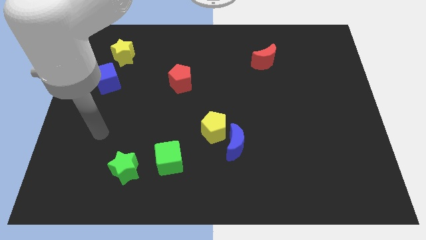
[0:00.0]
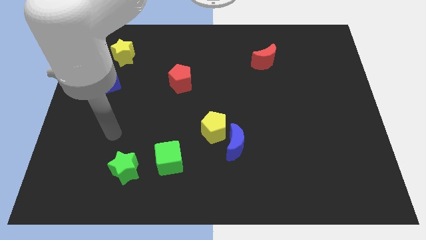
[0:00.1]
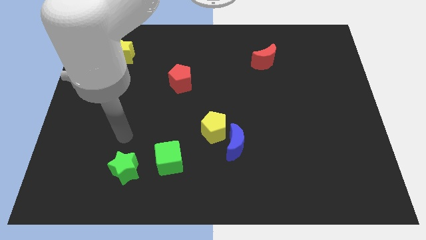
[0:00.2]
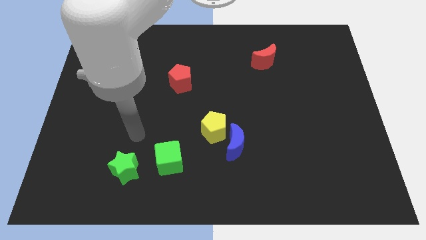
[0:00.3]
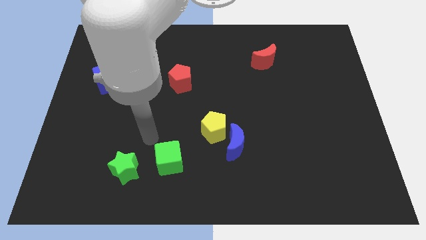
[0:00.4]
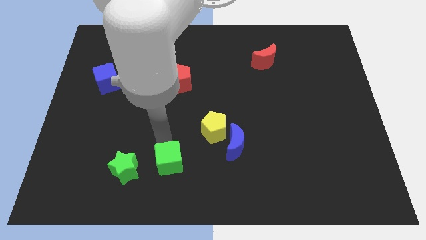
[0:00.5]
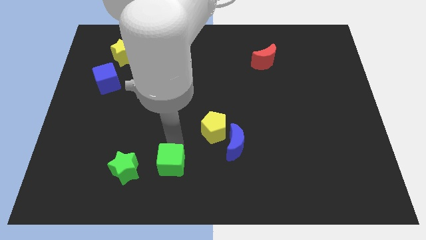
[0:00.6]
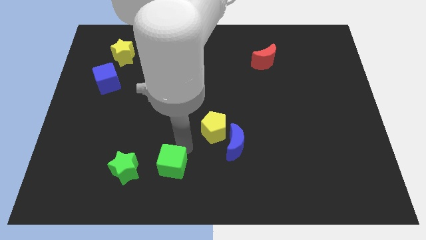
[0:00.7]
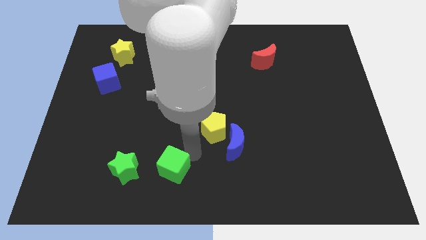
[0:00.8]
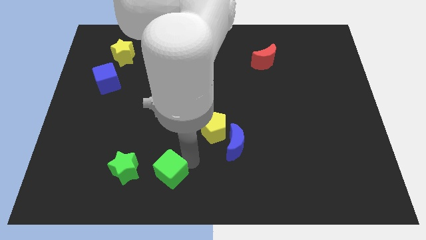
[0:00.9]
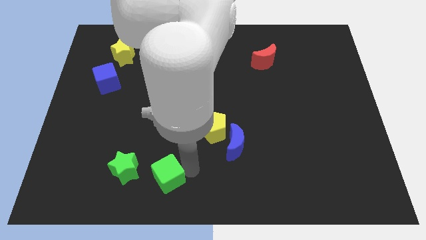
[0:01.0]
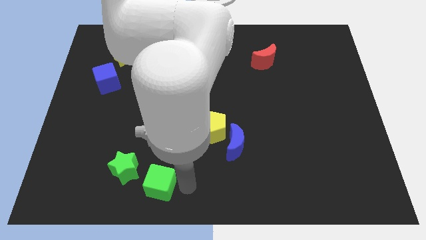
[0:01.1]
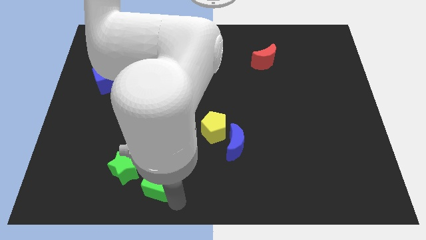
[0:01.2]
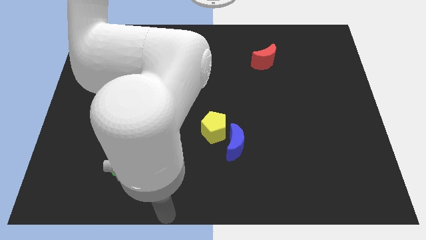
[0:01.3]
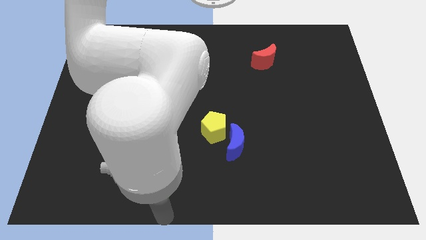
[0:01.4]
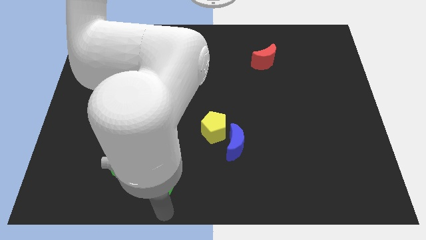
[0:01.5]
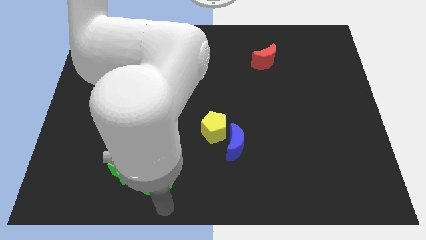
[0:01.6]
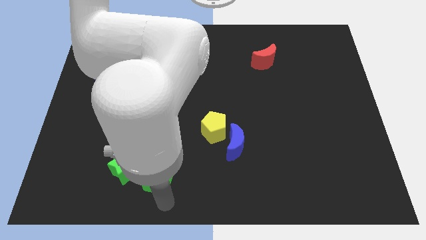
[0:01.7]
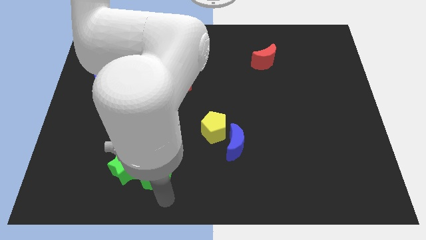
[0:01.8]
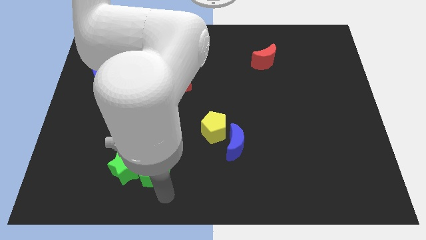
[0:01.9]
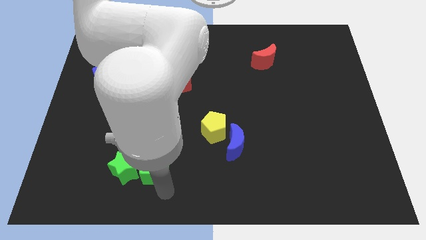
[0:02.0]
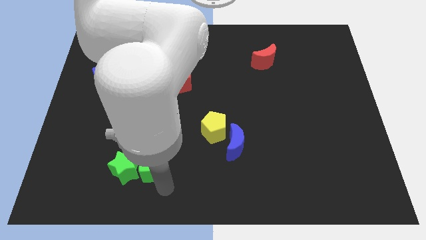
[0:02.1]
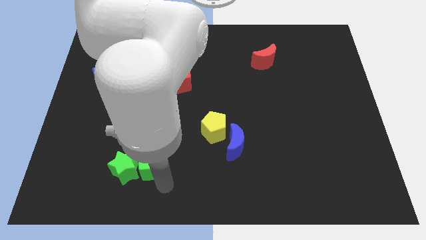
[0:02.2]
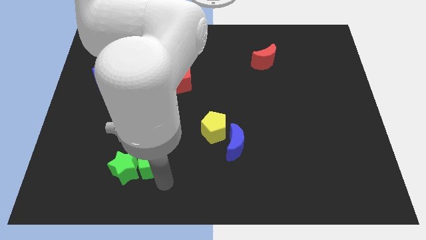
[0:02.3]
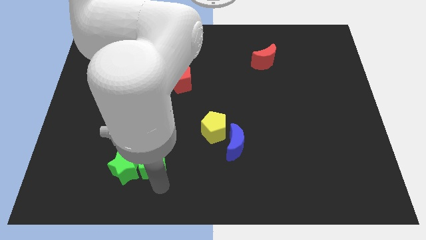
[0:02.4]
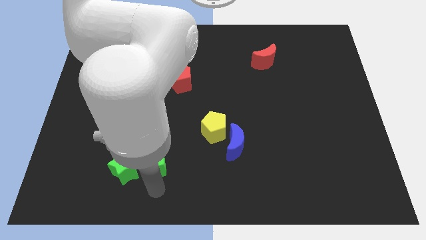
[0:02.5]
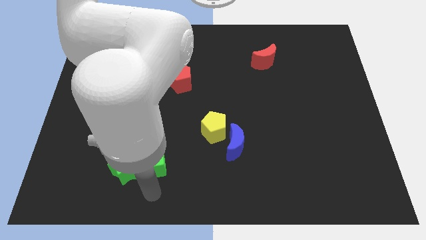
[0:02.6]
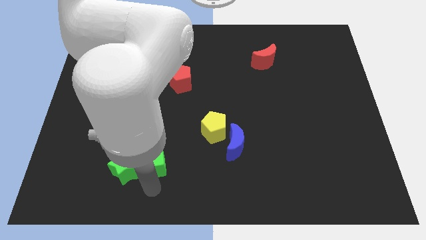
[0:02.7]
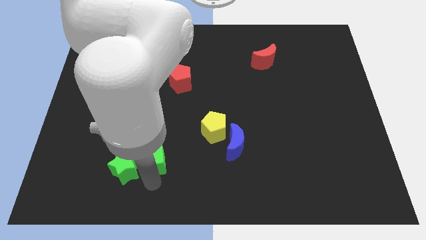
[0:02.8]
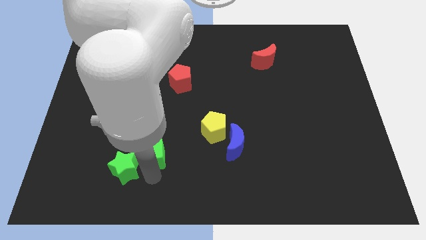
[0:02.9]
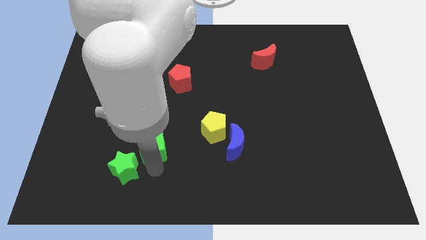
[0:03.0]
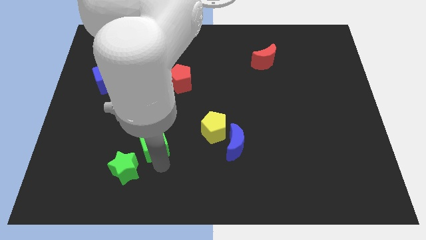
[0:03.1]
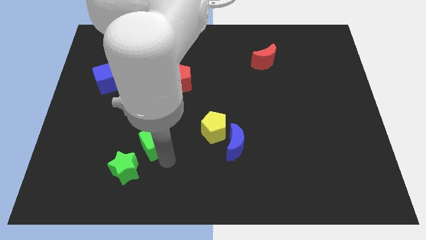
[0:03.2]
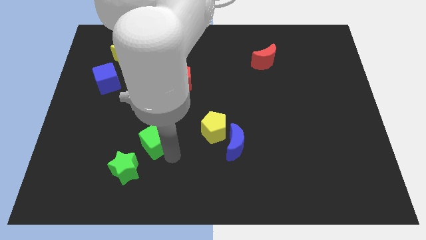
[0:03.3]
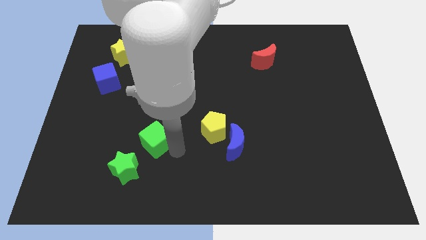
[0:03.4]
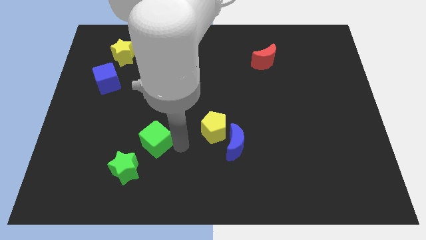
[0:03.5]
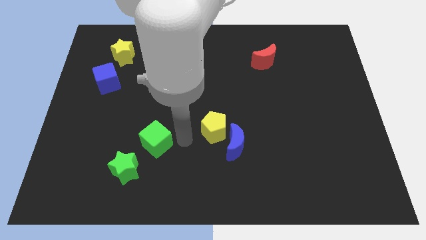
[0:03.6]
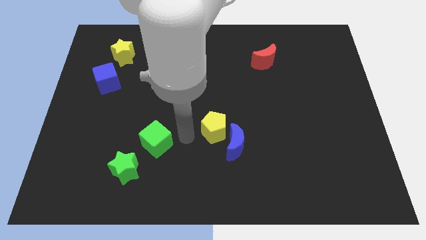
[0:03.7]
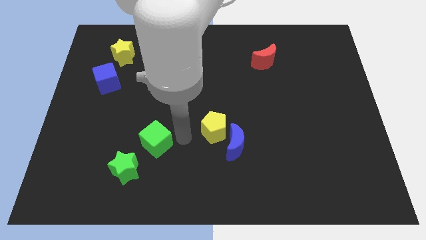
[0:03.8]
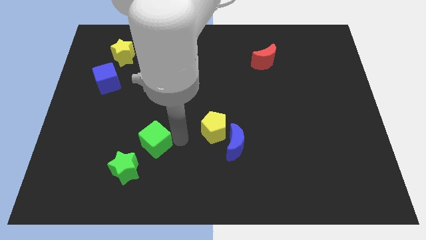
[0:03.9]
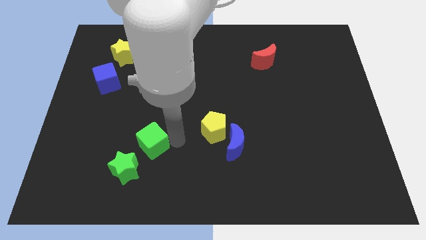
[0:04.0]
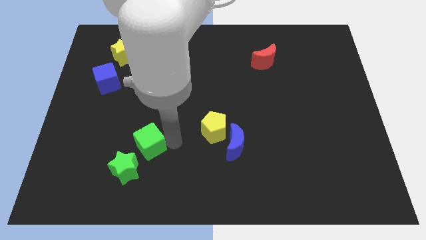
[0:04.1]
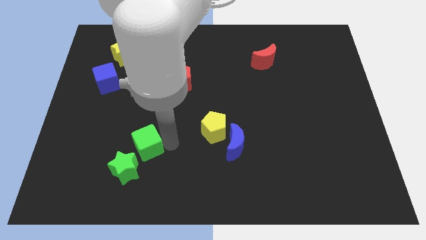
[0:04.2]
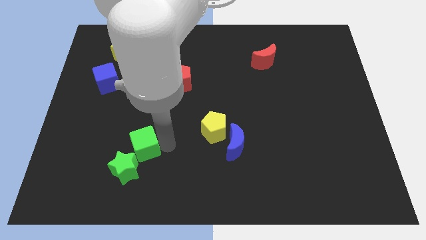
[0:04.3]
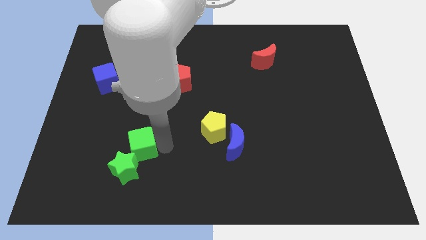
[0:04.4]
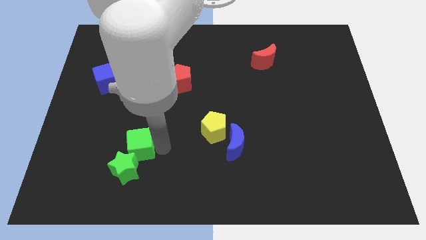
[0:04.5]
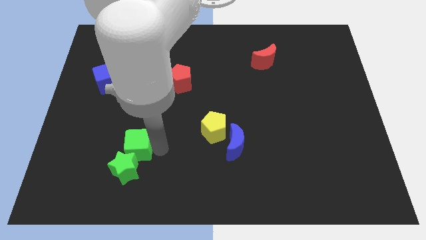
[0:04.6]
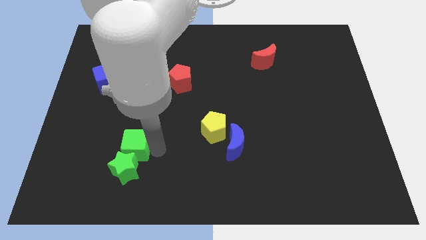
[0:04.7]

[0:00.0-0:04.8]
push the green cube a little bit left

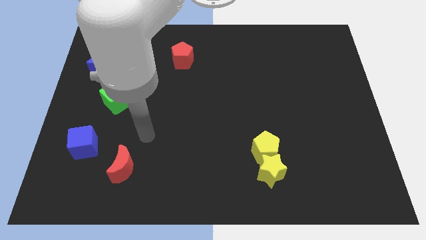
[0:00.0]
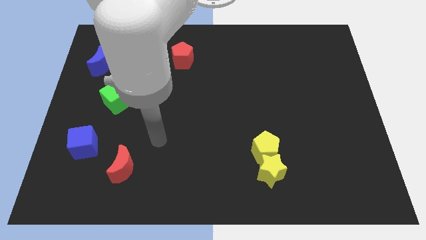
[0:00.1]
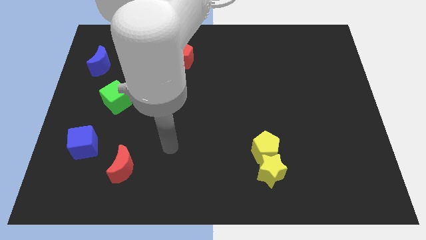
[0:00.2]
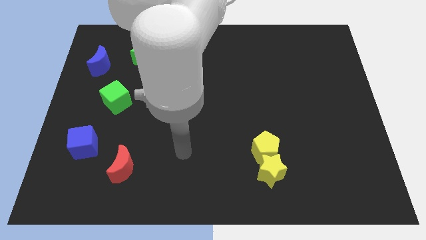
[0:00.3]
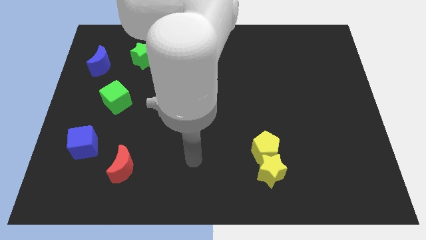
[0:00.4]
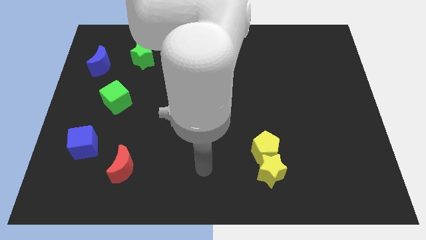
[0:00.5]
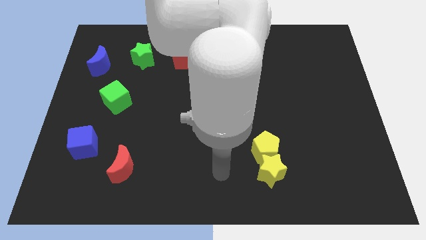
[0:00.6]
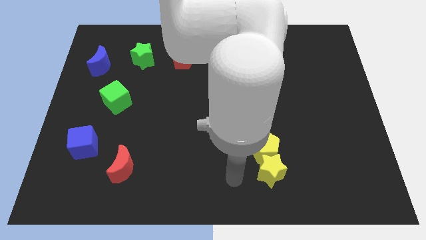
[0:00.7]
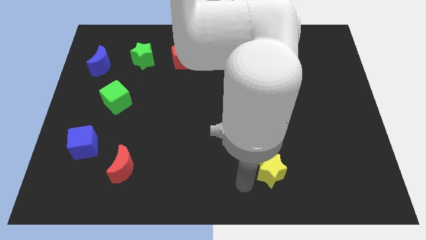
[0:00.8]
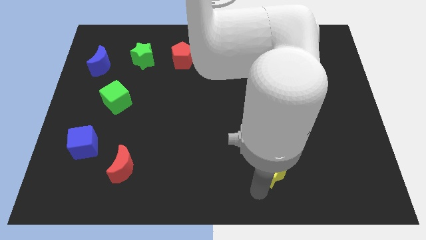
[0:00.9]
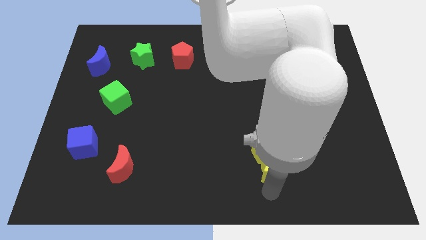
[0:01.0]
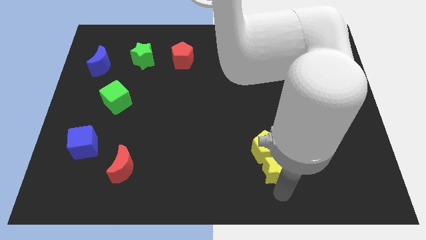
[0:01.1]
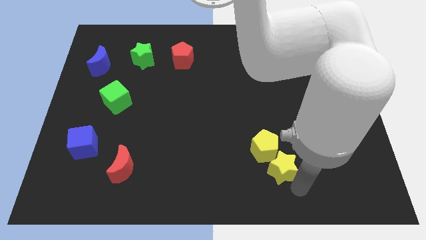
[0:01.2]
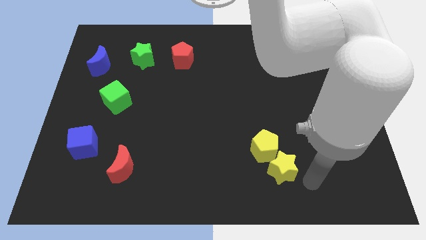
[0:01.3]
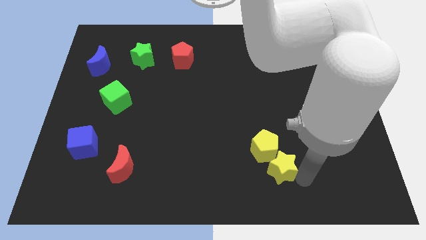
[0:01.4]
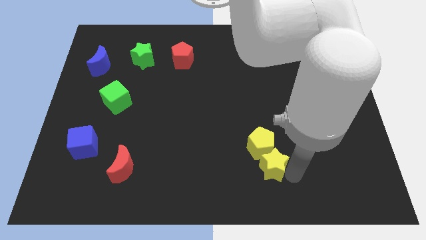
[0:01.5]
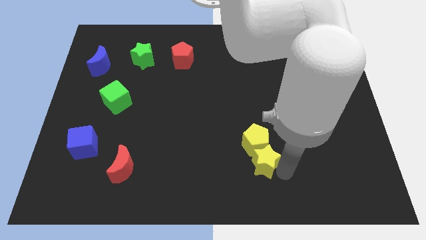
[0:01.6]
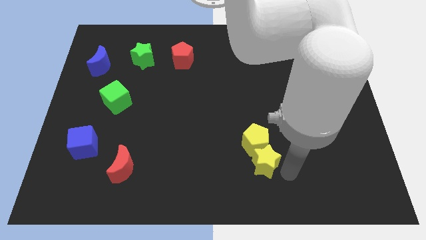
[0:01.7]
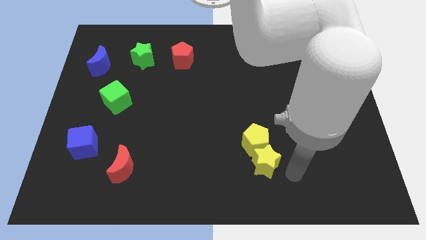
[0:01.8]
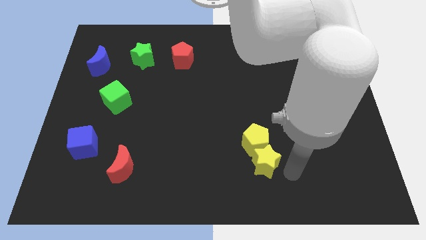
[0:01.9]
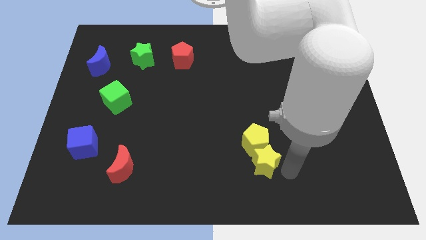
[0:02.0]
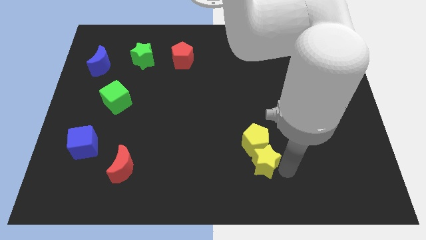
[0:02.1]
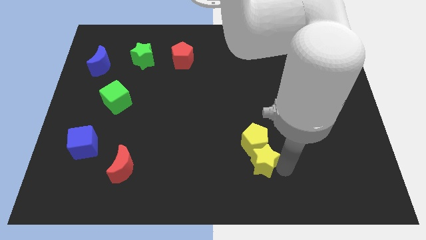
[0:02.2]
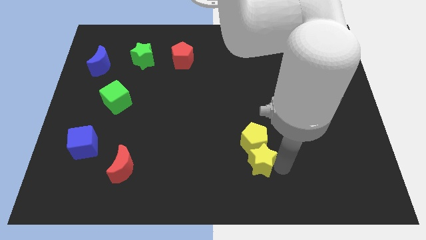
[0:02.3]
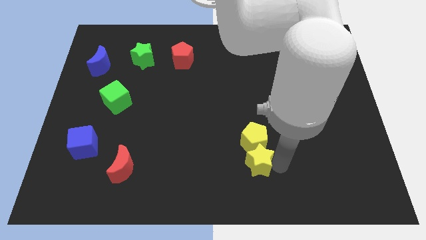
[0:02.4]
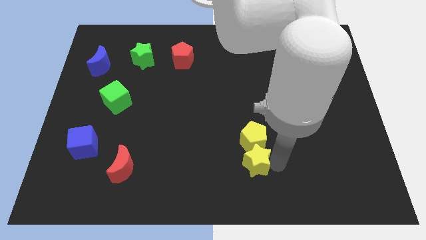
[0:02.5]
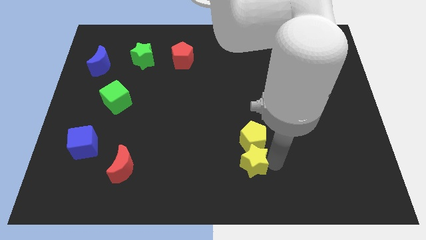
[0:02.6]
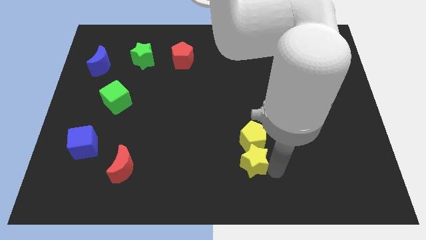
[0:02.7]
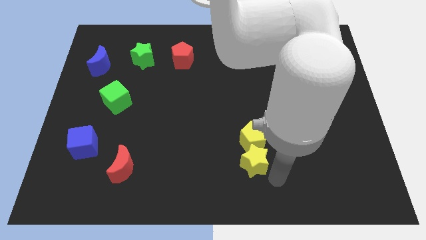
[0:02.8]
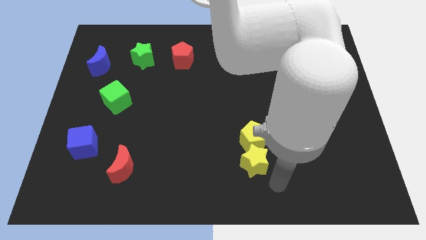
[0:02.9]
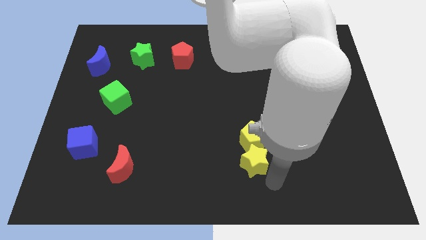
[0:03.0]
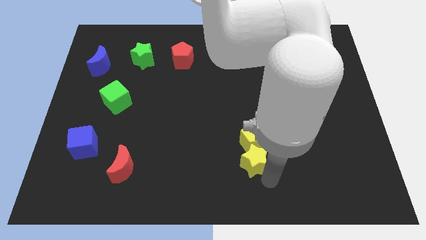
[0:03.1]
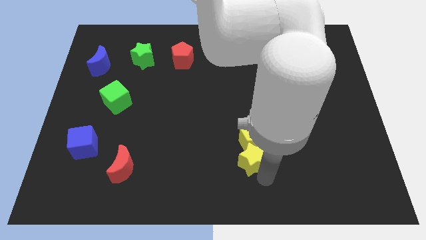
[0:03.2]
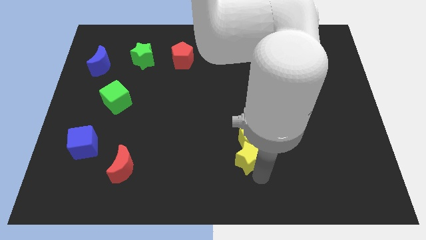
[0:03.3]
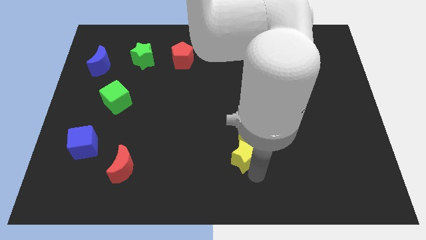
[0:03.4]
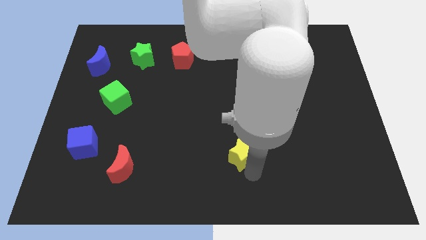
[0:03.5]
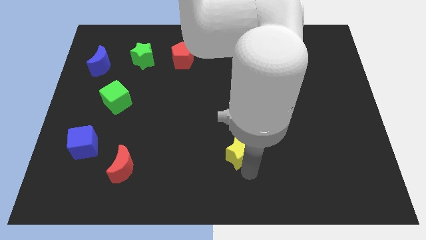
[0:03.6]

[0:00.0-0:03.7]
slide the yellow star upwards and then left a little
